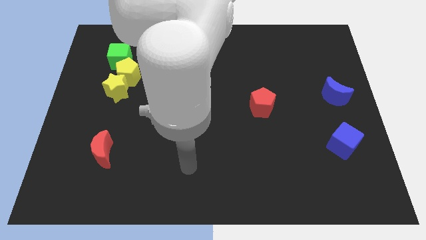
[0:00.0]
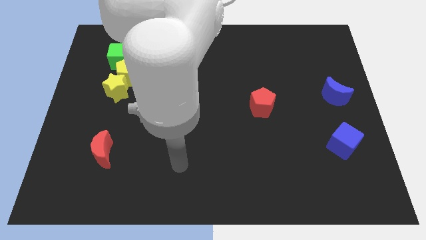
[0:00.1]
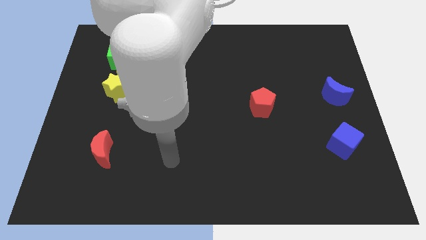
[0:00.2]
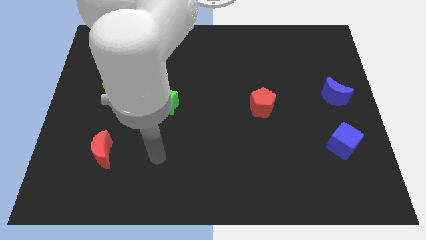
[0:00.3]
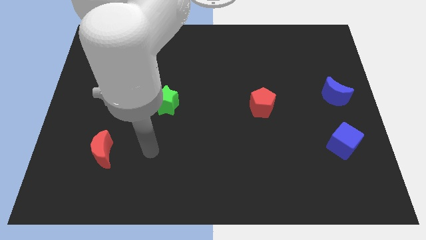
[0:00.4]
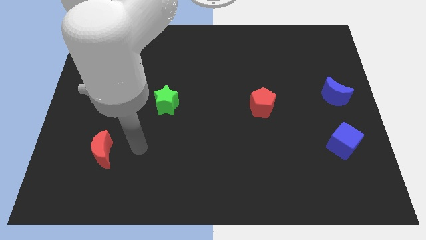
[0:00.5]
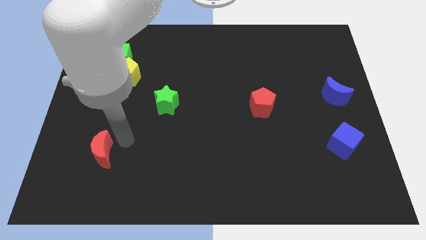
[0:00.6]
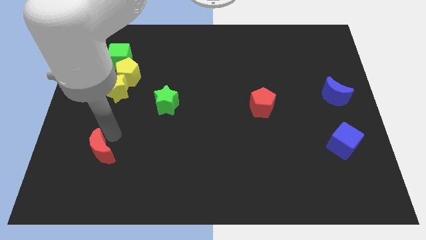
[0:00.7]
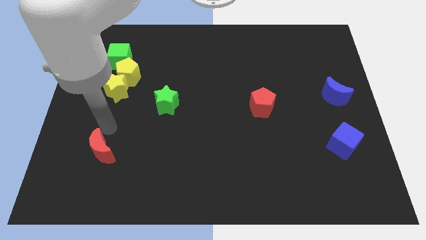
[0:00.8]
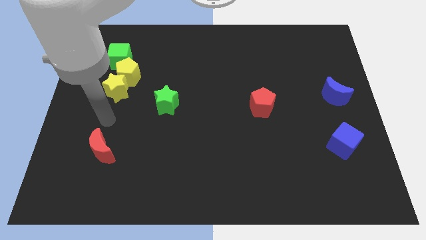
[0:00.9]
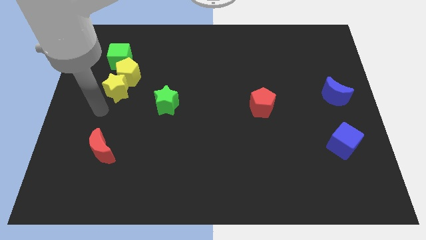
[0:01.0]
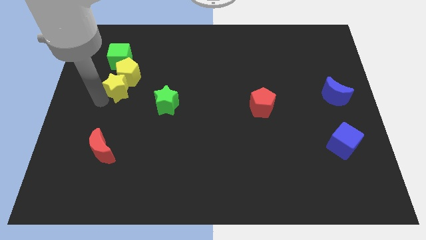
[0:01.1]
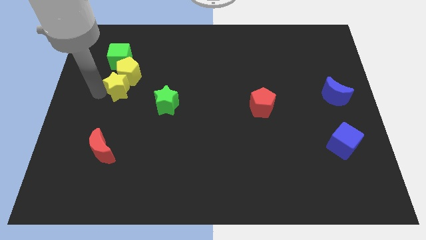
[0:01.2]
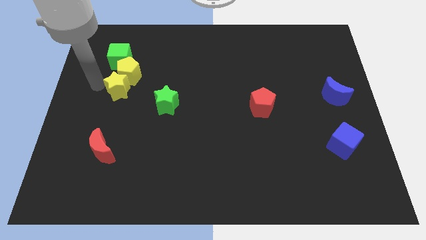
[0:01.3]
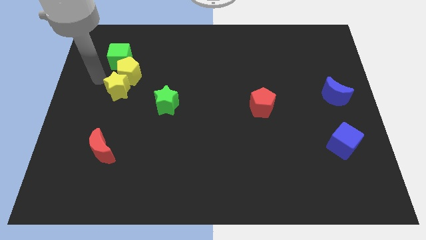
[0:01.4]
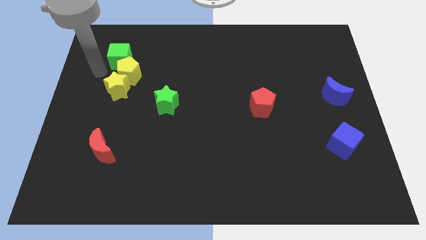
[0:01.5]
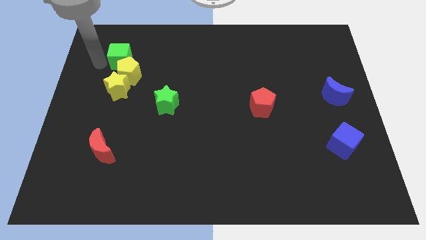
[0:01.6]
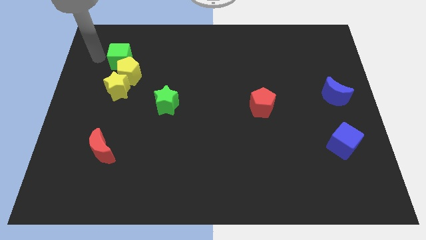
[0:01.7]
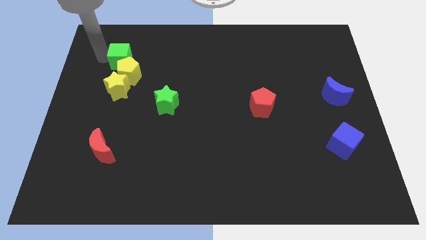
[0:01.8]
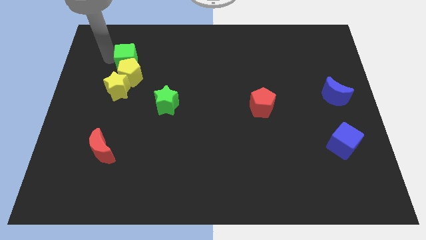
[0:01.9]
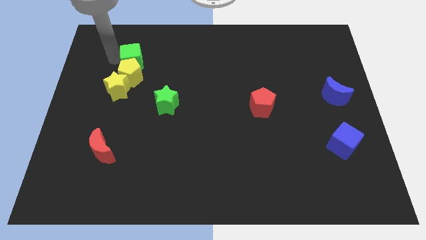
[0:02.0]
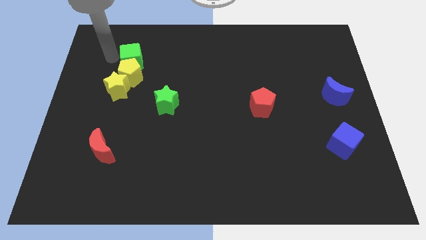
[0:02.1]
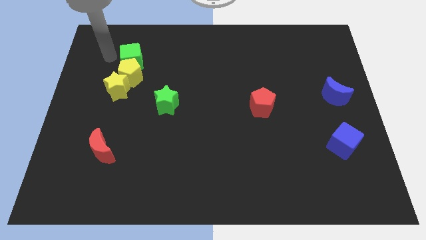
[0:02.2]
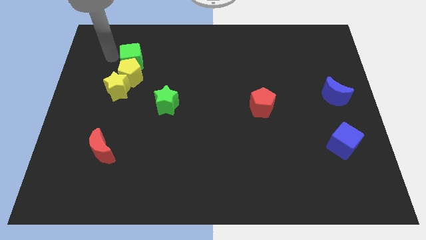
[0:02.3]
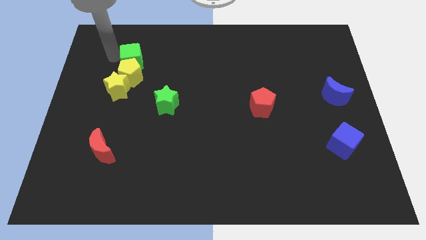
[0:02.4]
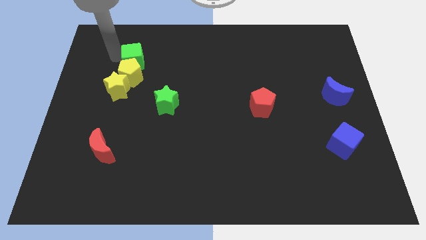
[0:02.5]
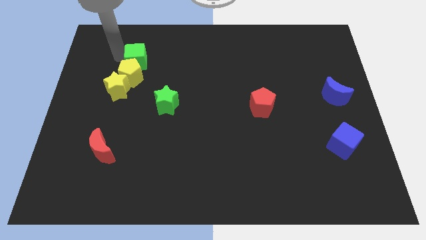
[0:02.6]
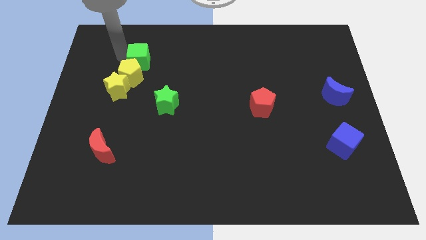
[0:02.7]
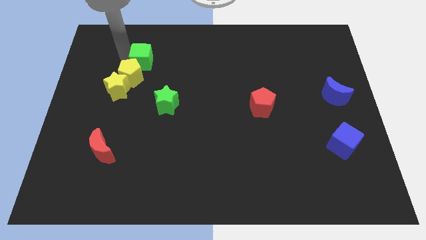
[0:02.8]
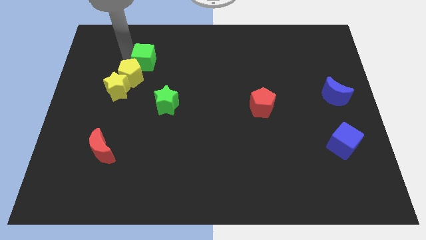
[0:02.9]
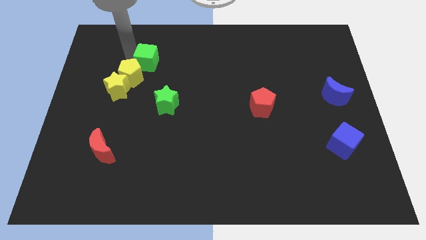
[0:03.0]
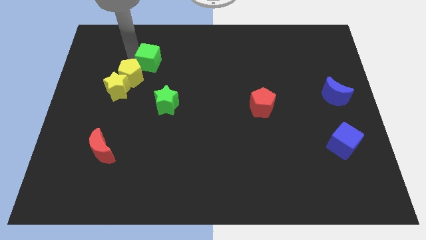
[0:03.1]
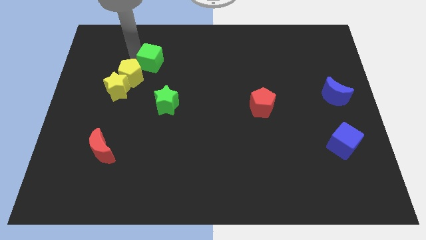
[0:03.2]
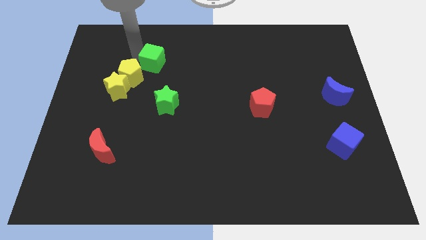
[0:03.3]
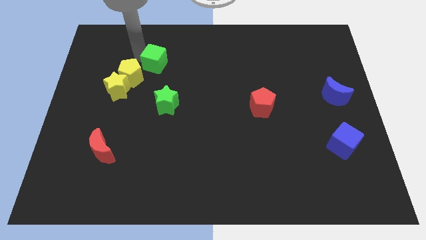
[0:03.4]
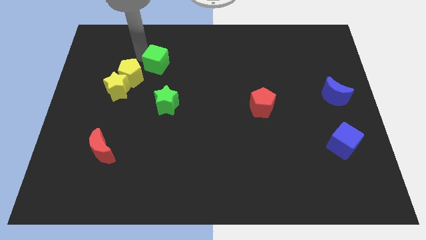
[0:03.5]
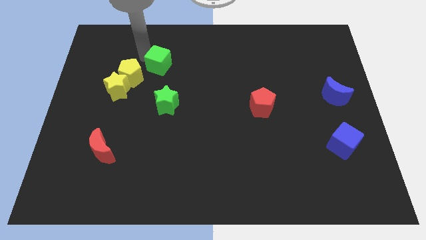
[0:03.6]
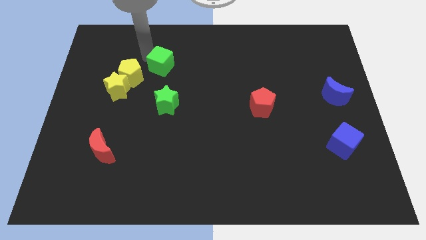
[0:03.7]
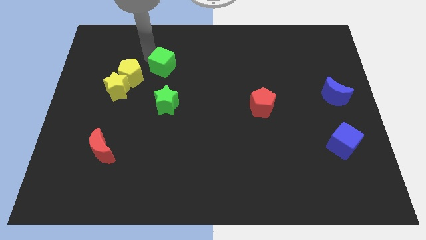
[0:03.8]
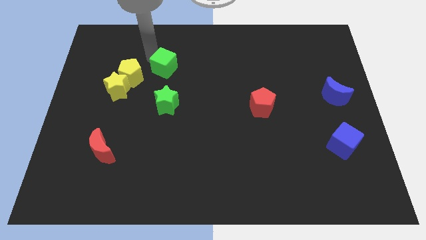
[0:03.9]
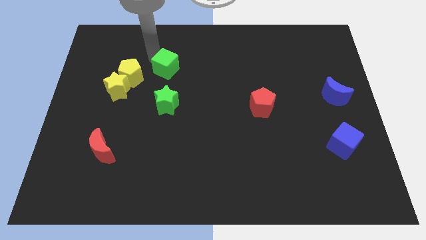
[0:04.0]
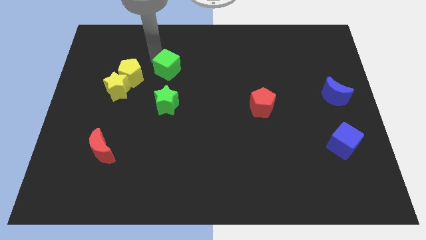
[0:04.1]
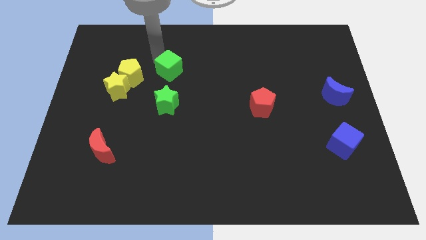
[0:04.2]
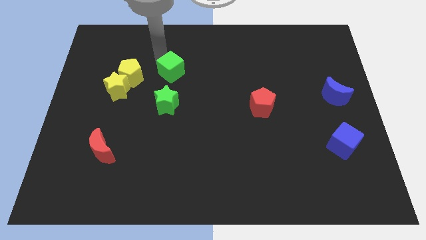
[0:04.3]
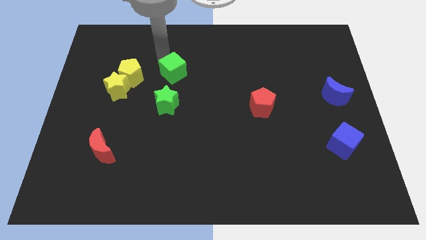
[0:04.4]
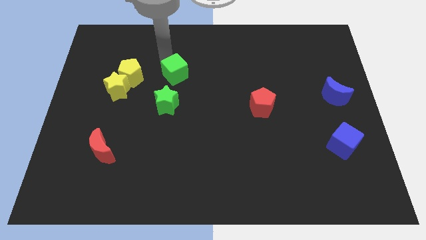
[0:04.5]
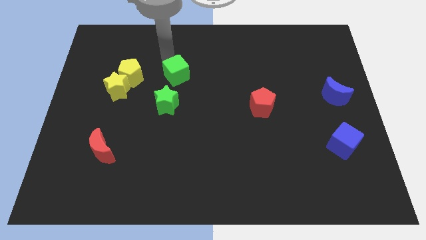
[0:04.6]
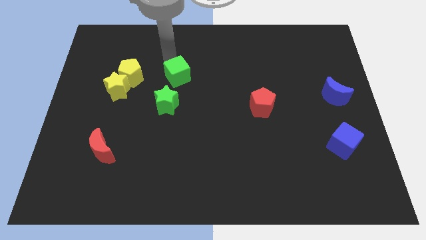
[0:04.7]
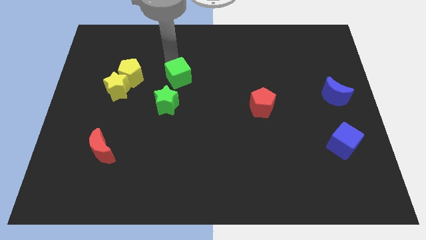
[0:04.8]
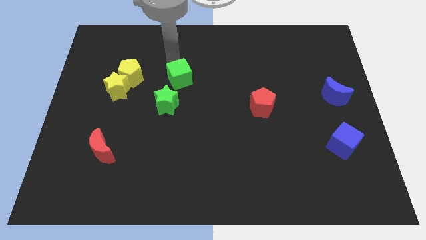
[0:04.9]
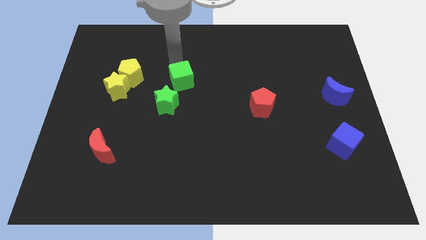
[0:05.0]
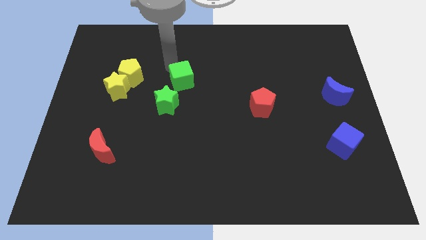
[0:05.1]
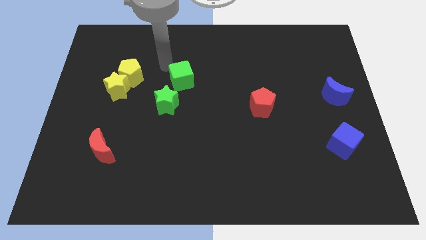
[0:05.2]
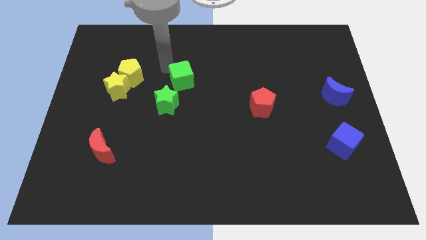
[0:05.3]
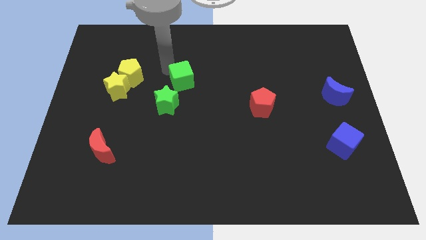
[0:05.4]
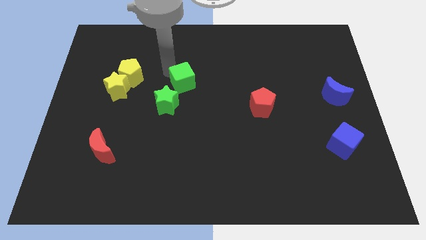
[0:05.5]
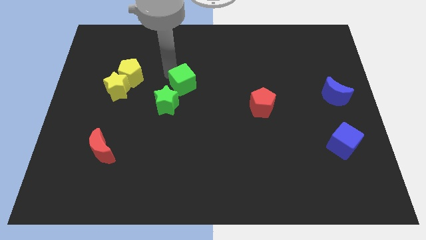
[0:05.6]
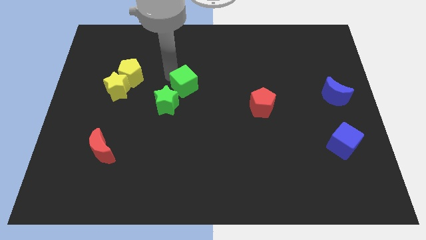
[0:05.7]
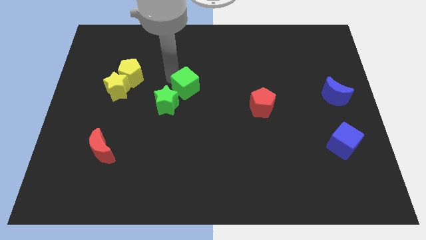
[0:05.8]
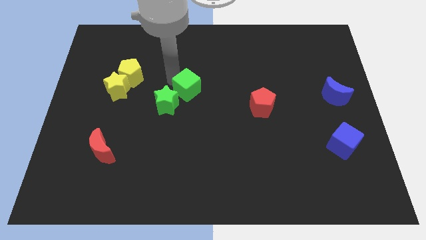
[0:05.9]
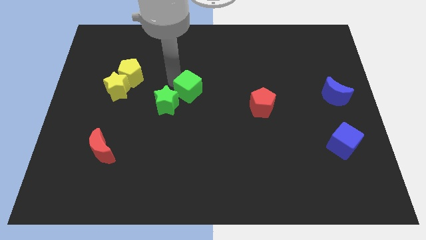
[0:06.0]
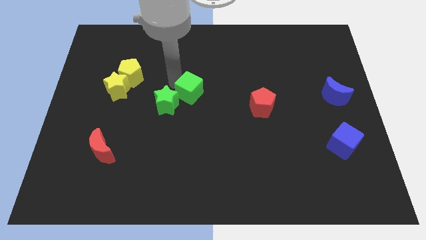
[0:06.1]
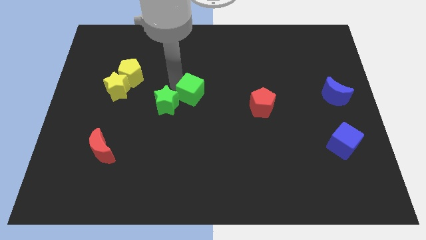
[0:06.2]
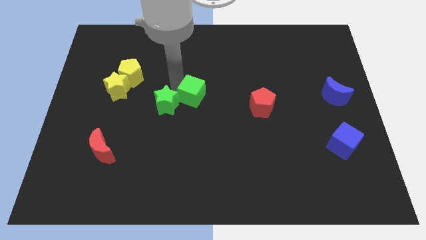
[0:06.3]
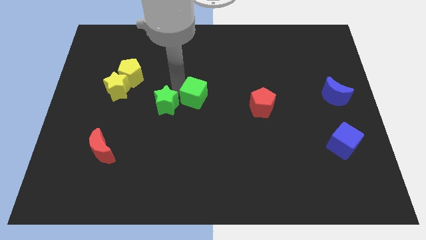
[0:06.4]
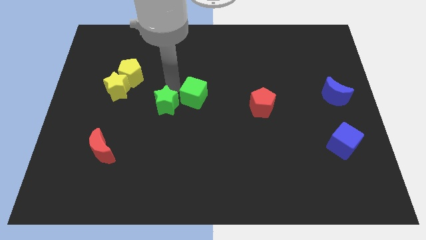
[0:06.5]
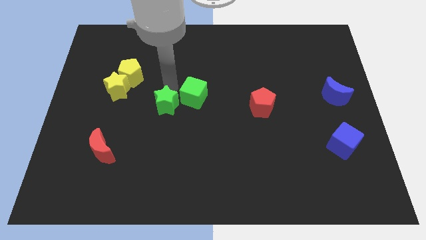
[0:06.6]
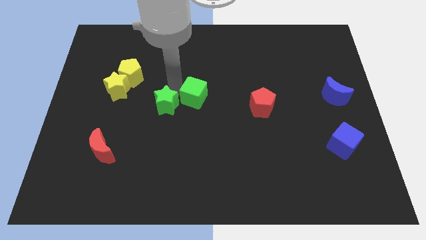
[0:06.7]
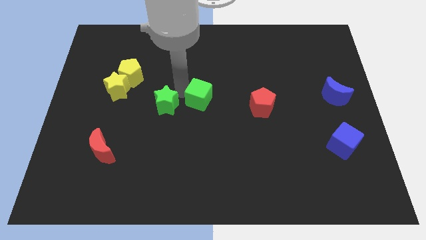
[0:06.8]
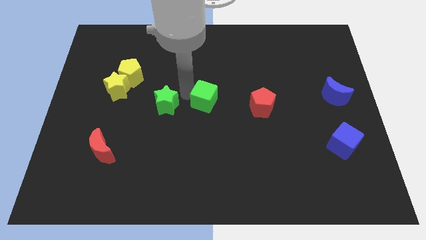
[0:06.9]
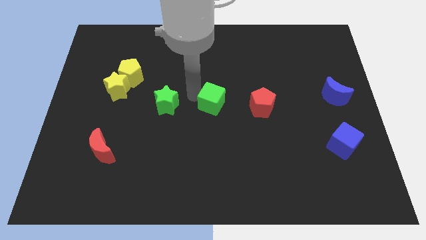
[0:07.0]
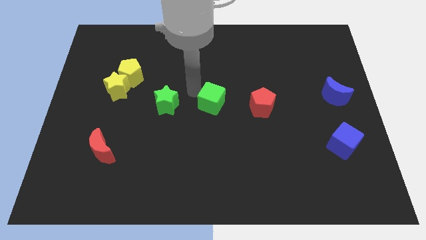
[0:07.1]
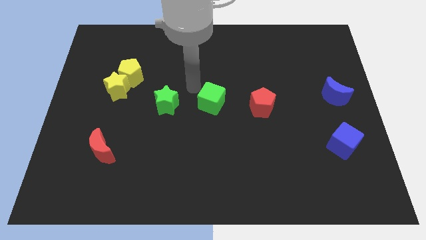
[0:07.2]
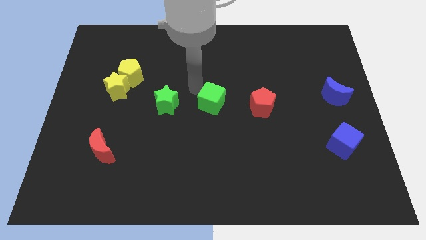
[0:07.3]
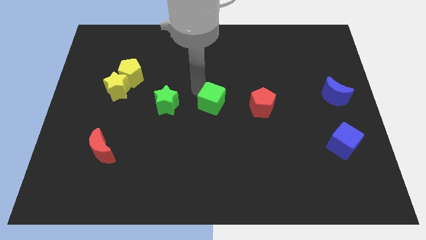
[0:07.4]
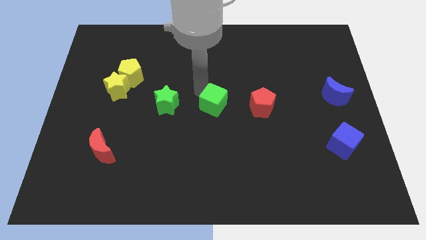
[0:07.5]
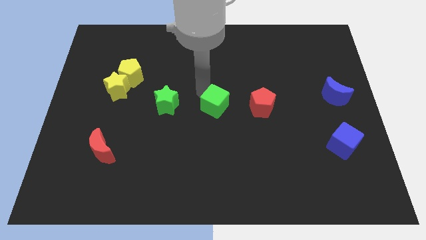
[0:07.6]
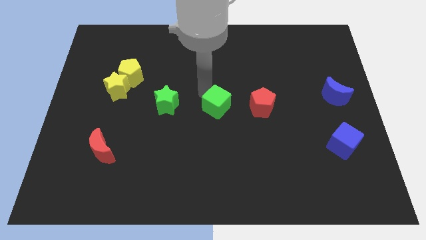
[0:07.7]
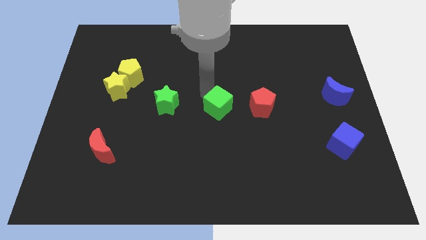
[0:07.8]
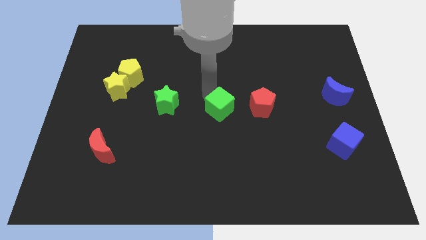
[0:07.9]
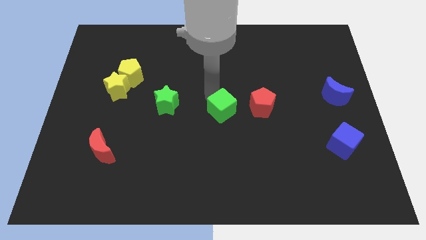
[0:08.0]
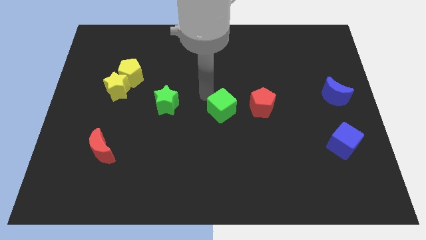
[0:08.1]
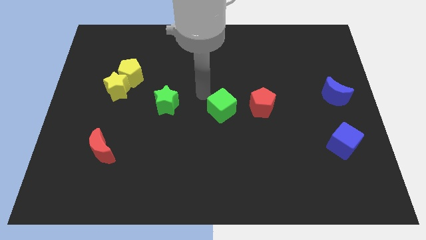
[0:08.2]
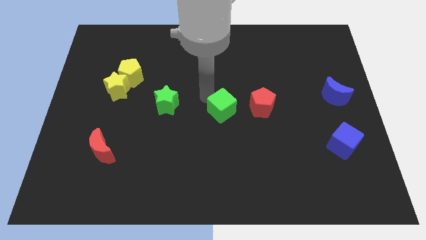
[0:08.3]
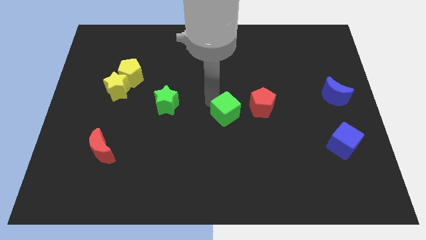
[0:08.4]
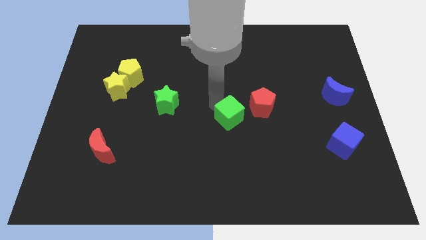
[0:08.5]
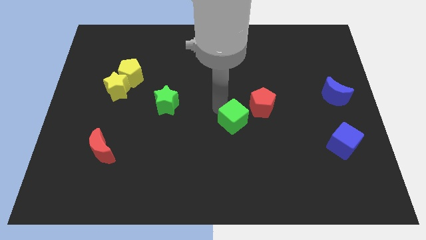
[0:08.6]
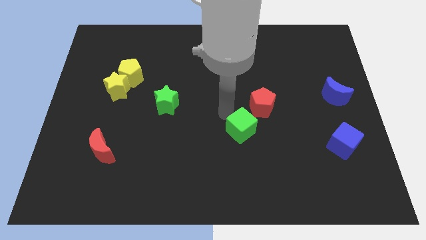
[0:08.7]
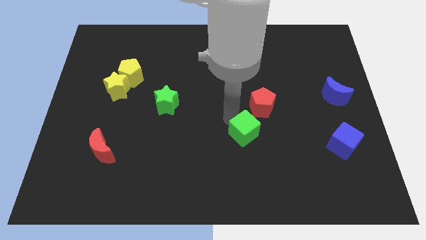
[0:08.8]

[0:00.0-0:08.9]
move the green cube below the red pentagon
